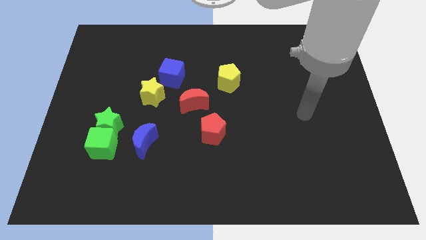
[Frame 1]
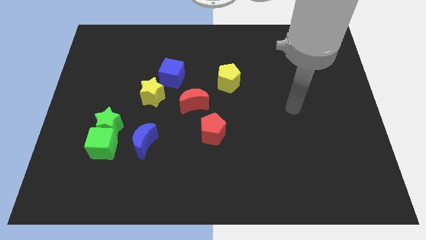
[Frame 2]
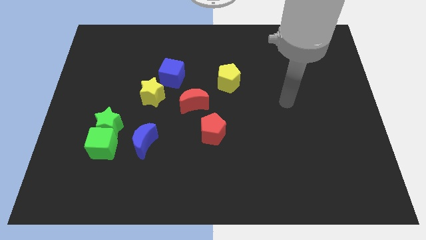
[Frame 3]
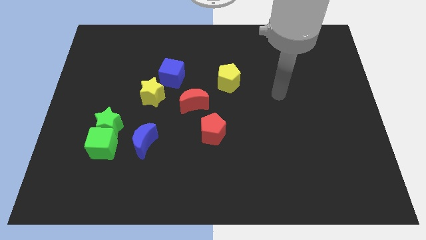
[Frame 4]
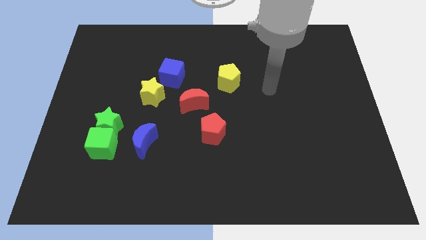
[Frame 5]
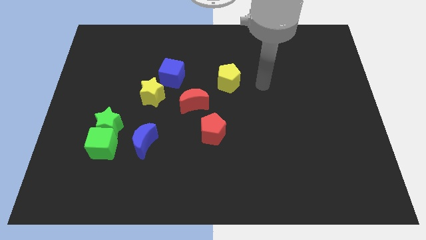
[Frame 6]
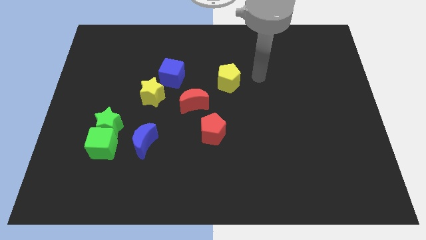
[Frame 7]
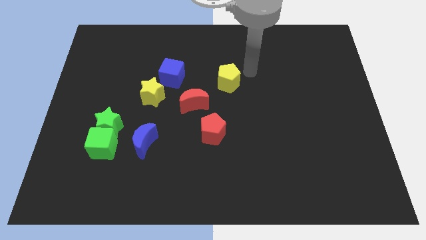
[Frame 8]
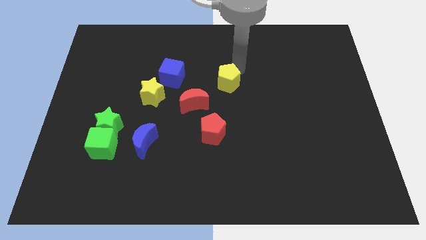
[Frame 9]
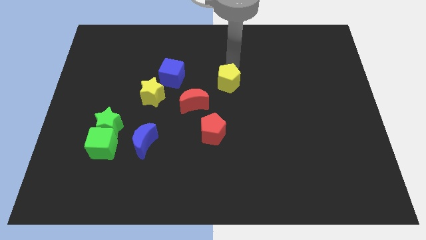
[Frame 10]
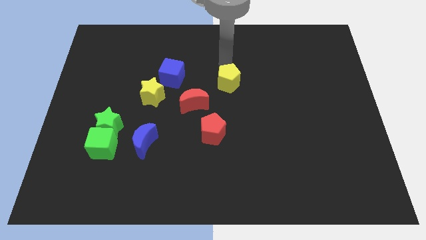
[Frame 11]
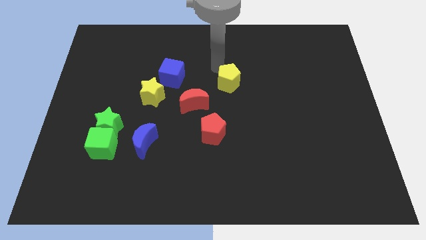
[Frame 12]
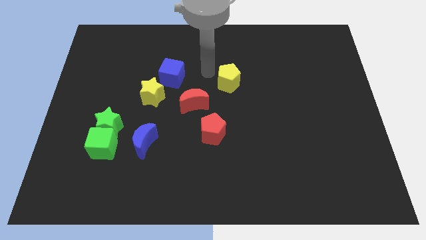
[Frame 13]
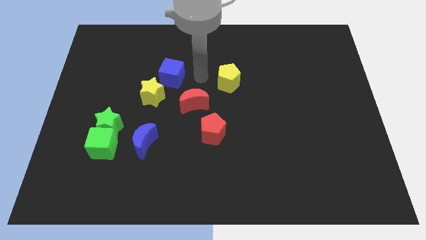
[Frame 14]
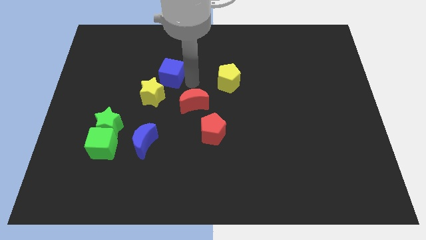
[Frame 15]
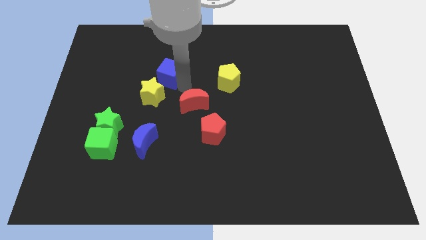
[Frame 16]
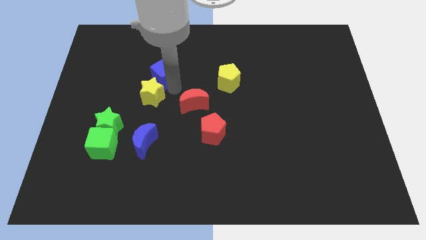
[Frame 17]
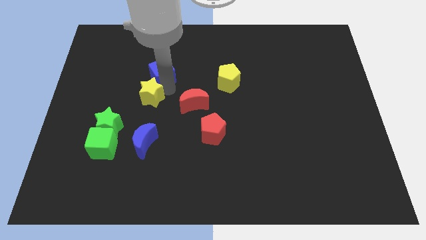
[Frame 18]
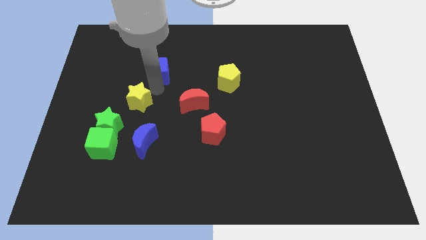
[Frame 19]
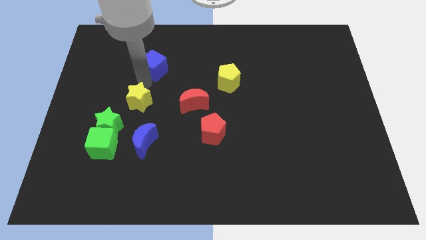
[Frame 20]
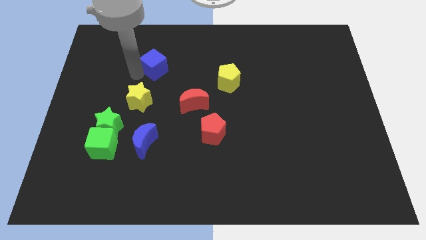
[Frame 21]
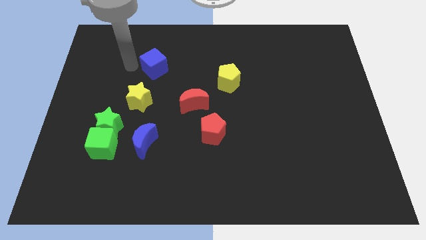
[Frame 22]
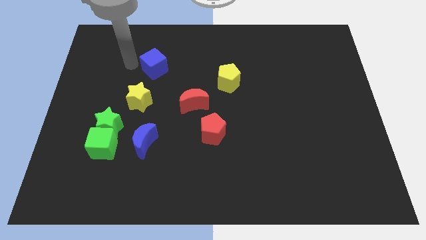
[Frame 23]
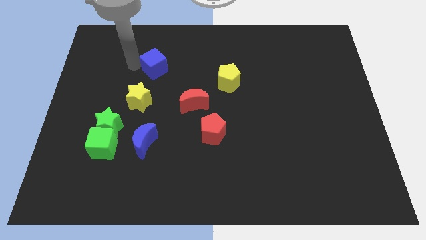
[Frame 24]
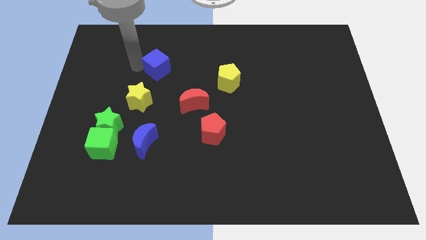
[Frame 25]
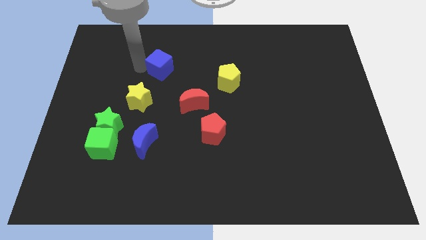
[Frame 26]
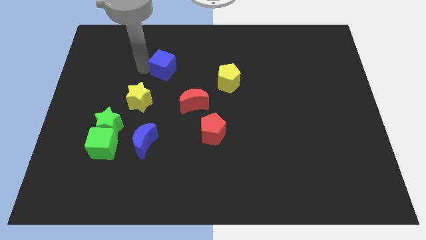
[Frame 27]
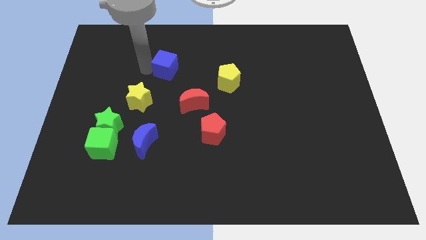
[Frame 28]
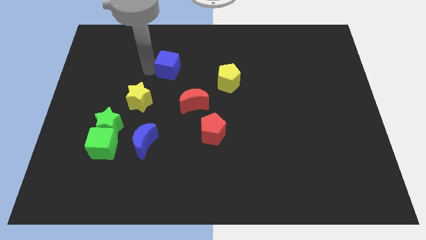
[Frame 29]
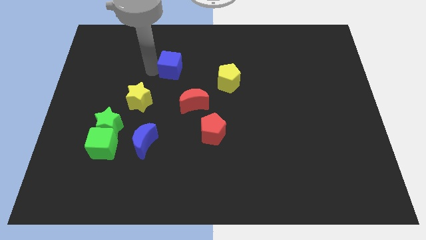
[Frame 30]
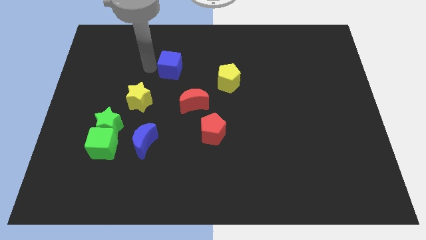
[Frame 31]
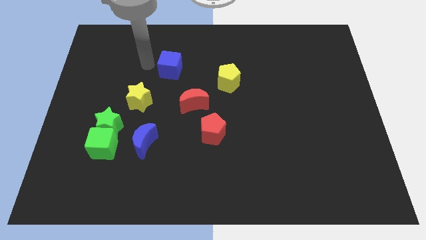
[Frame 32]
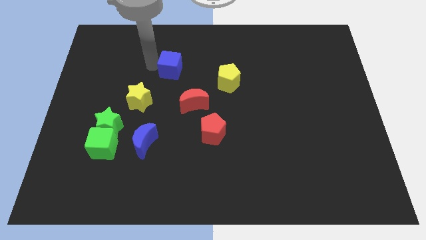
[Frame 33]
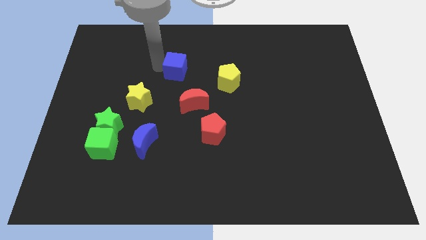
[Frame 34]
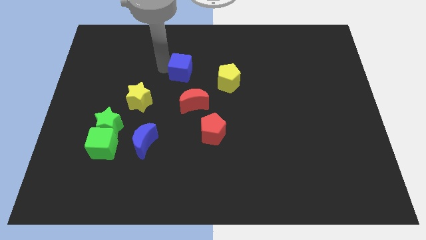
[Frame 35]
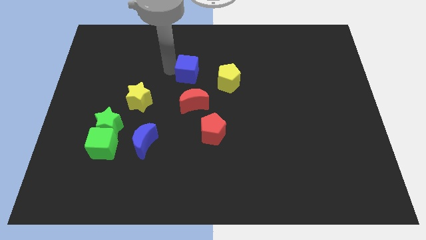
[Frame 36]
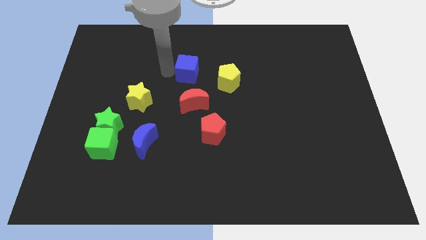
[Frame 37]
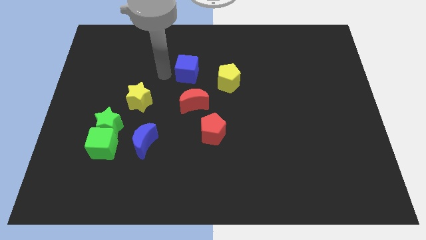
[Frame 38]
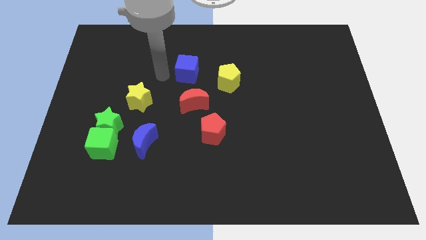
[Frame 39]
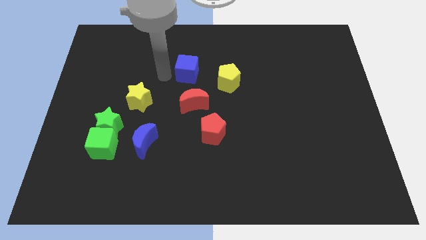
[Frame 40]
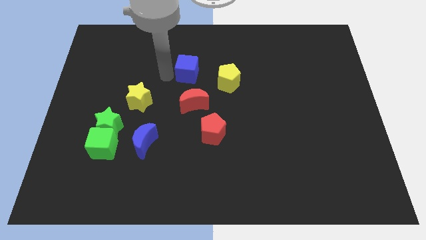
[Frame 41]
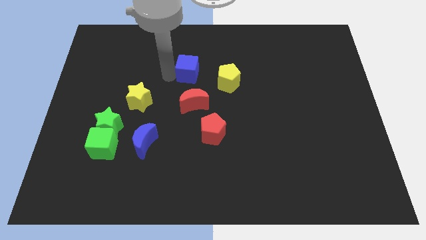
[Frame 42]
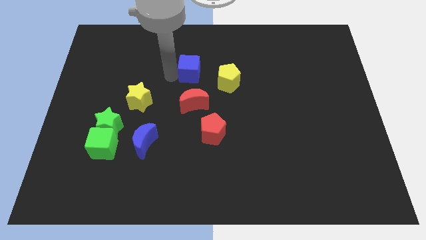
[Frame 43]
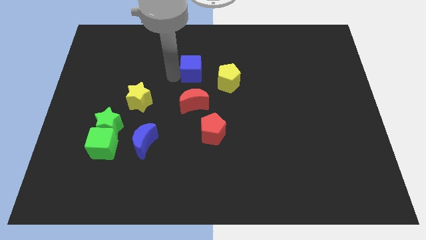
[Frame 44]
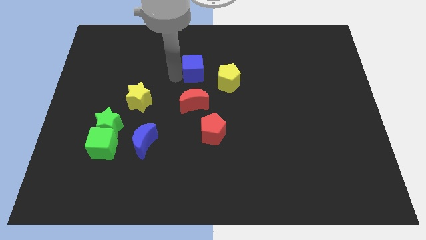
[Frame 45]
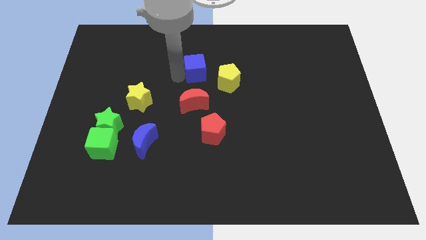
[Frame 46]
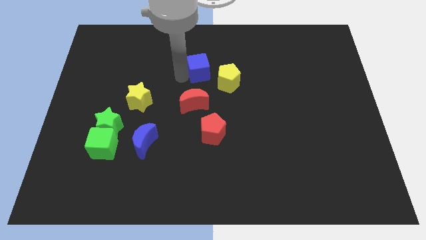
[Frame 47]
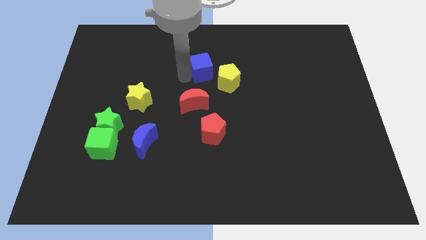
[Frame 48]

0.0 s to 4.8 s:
move the blue cube a little bit right

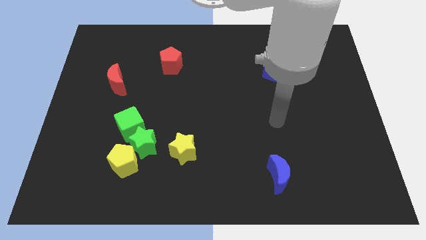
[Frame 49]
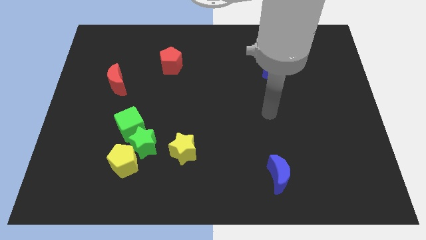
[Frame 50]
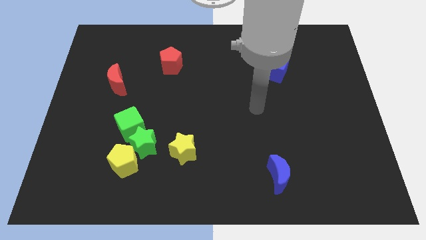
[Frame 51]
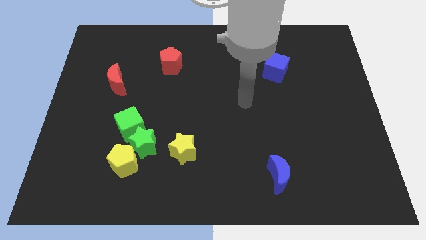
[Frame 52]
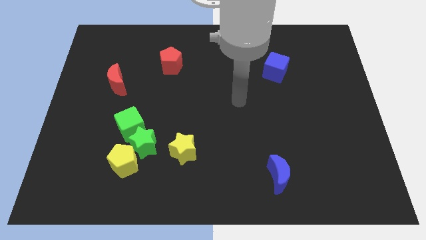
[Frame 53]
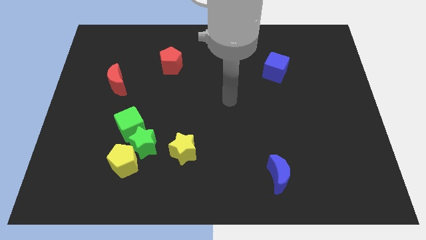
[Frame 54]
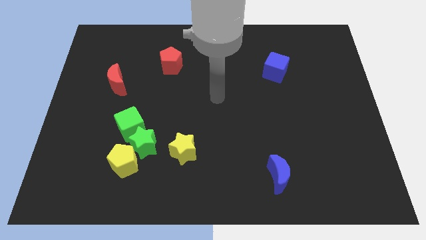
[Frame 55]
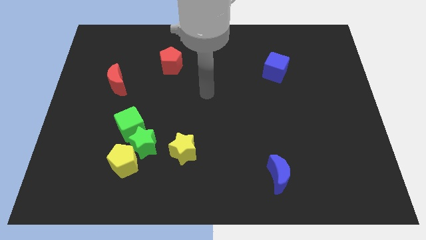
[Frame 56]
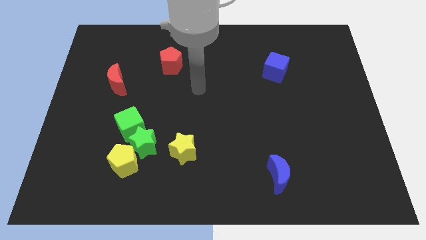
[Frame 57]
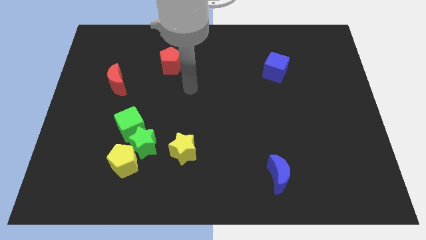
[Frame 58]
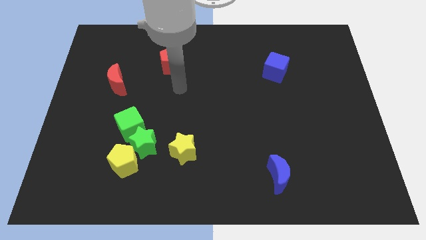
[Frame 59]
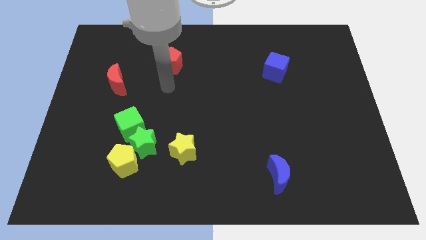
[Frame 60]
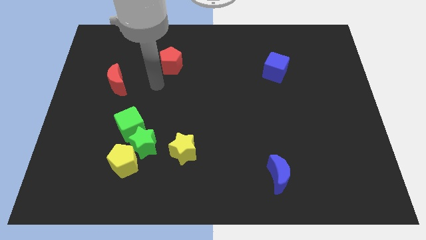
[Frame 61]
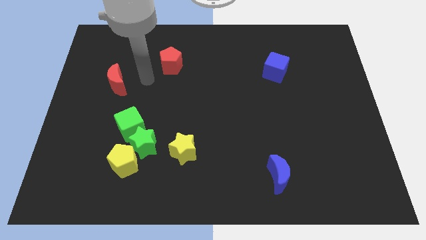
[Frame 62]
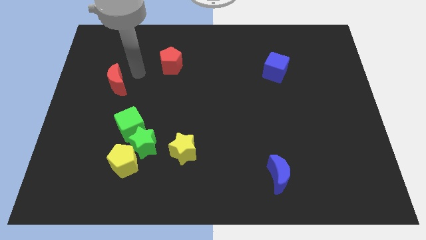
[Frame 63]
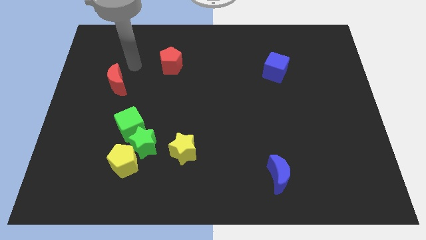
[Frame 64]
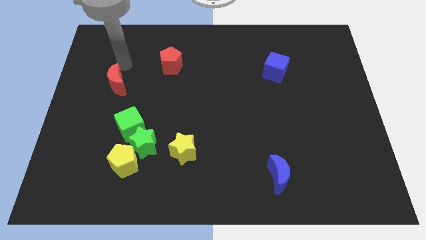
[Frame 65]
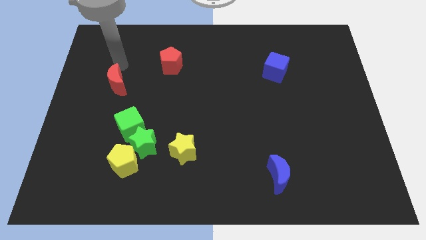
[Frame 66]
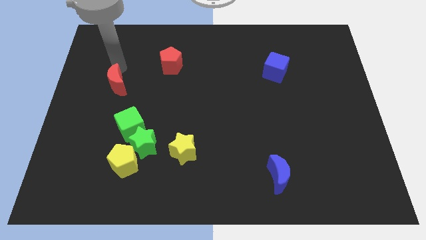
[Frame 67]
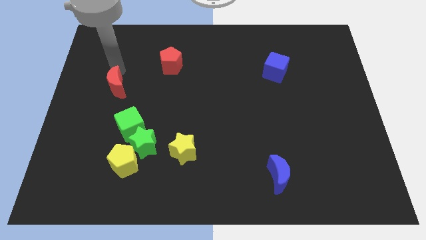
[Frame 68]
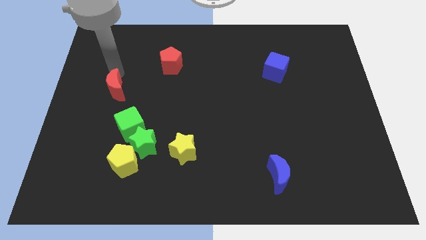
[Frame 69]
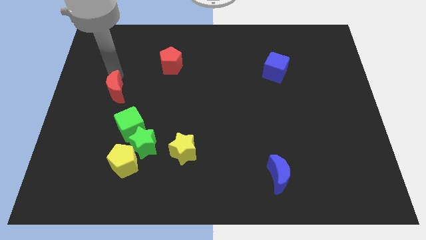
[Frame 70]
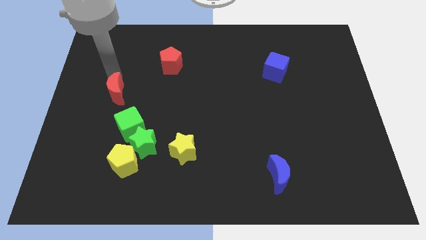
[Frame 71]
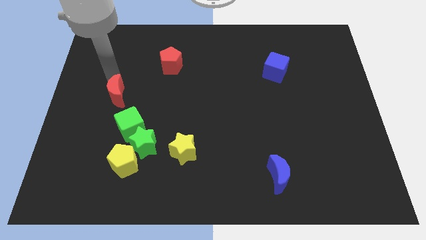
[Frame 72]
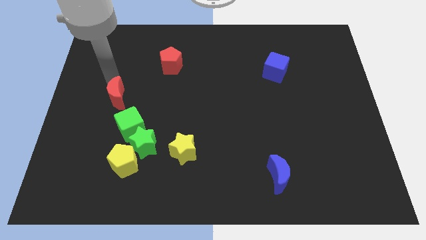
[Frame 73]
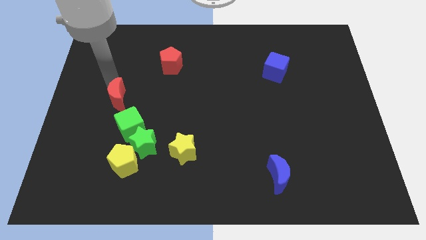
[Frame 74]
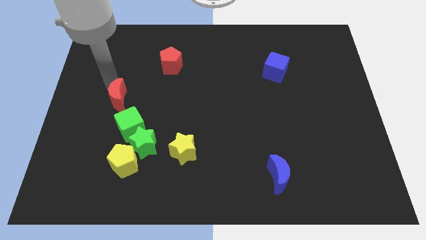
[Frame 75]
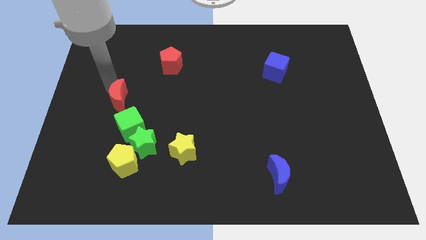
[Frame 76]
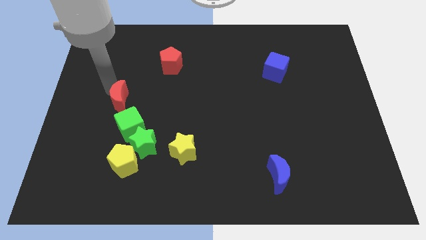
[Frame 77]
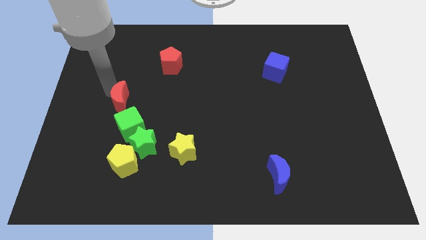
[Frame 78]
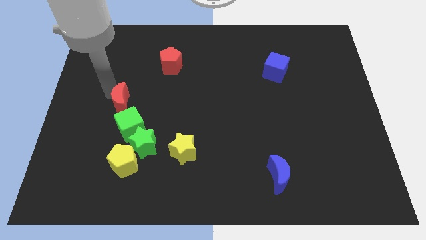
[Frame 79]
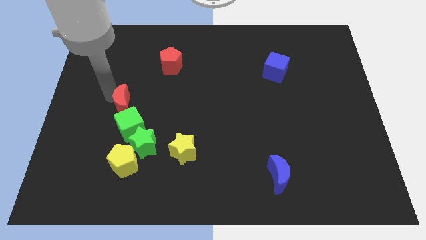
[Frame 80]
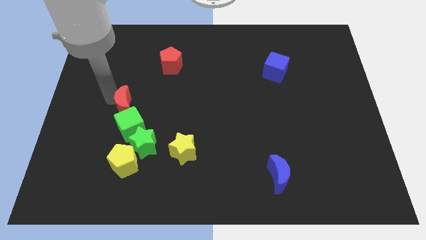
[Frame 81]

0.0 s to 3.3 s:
move the red moon downwards a little bit
